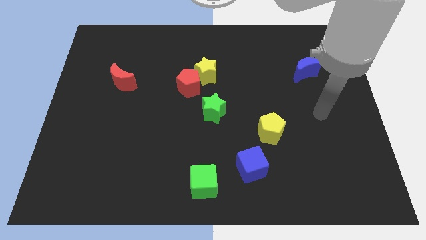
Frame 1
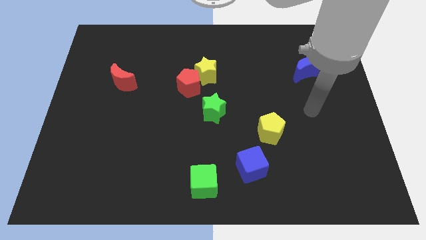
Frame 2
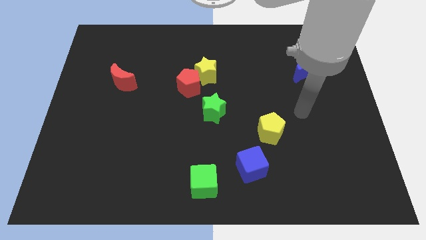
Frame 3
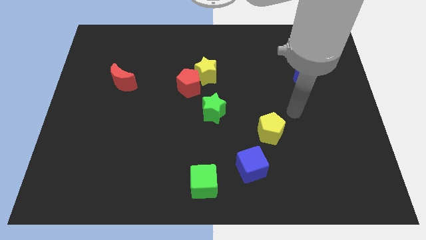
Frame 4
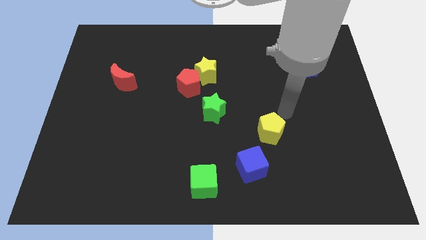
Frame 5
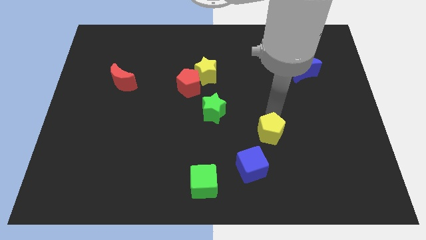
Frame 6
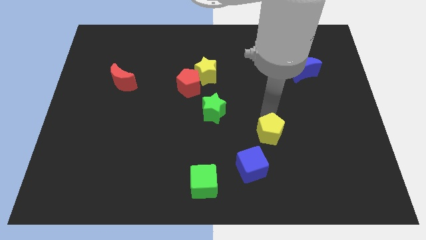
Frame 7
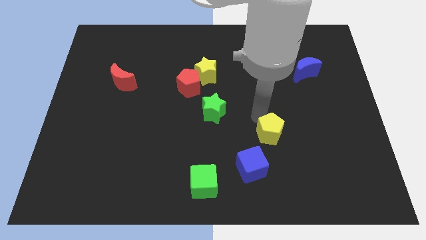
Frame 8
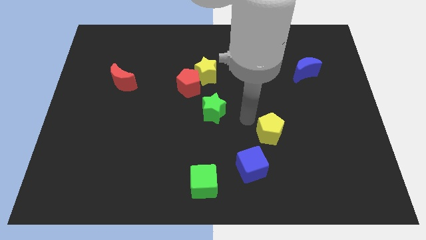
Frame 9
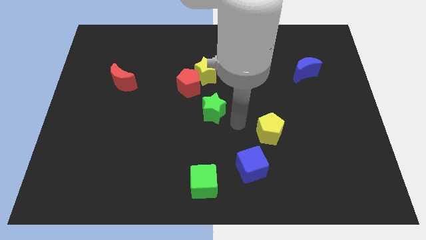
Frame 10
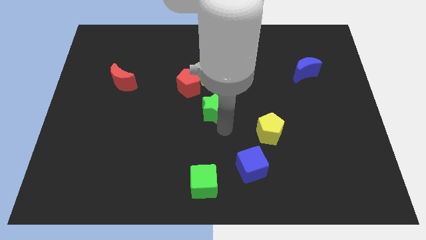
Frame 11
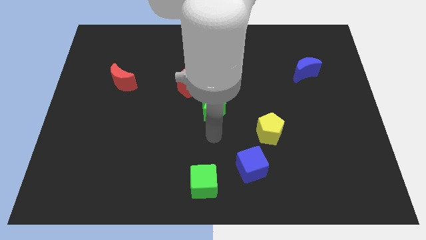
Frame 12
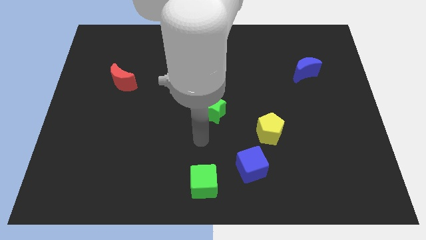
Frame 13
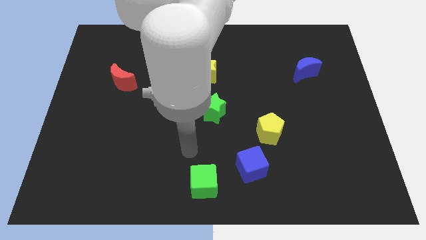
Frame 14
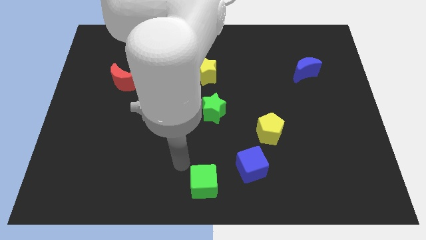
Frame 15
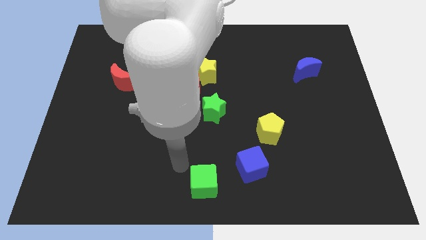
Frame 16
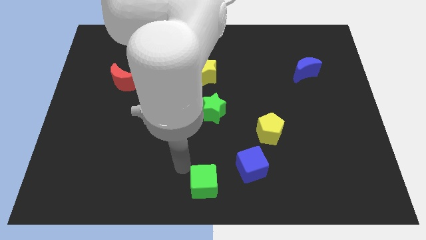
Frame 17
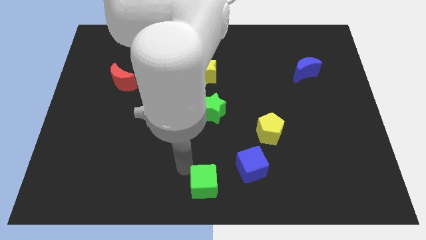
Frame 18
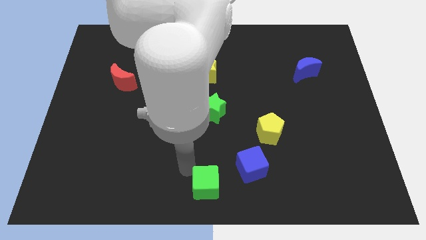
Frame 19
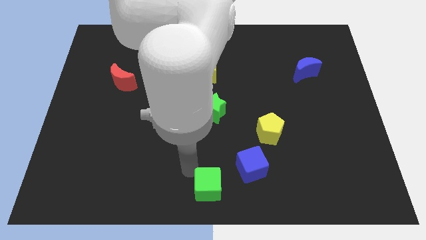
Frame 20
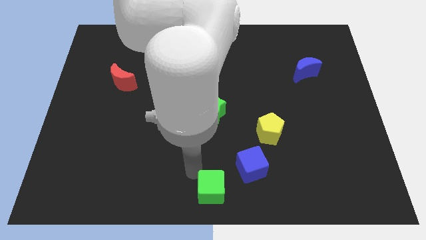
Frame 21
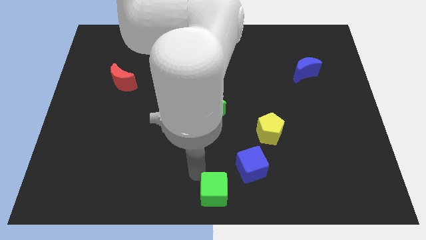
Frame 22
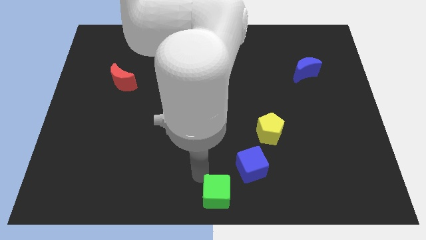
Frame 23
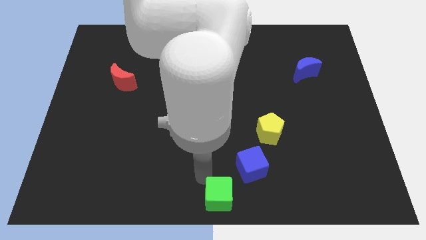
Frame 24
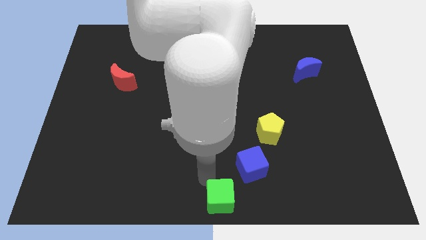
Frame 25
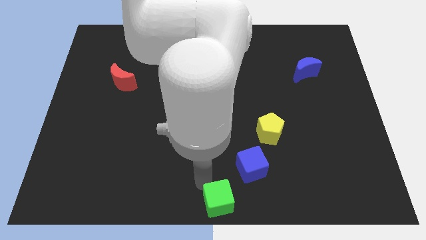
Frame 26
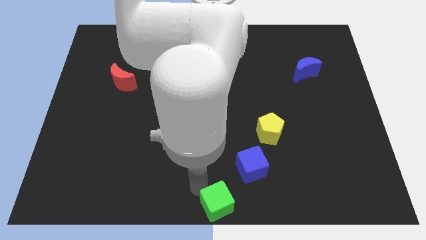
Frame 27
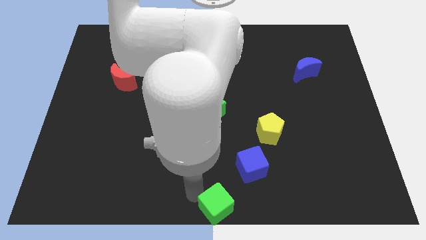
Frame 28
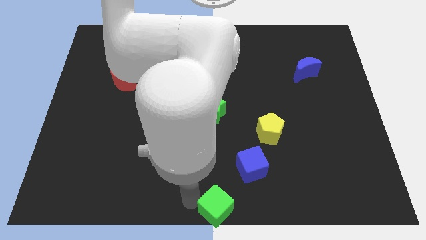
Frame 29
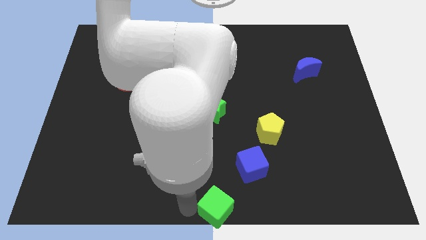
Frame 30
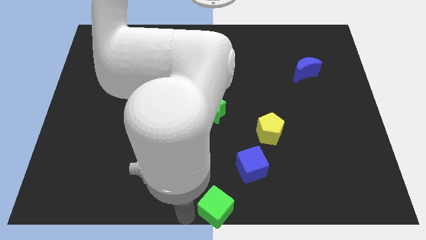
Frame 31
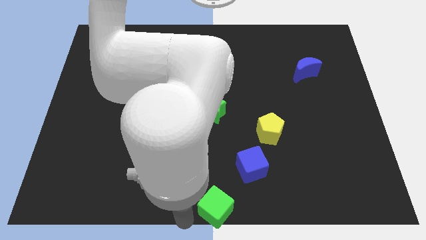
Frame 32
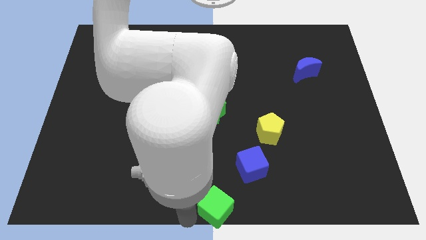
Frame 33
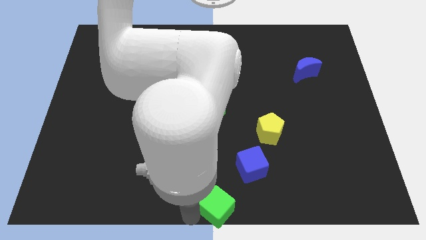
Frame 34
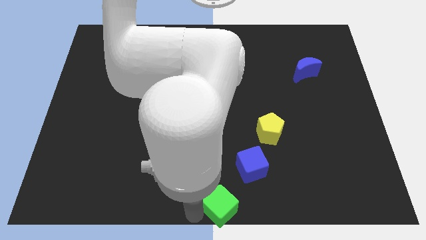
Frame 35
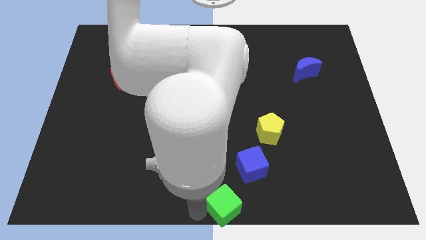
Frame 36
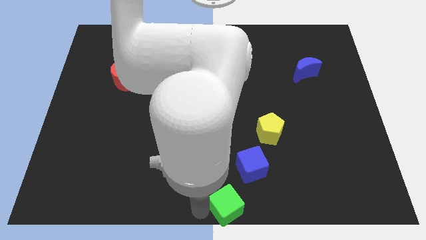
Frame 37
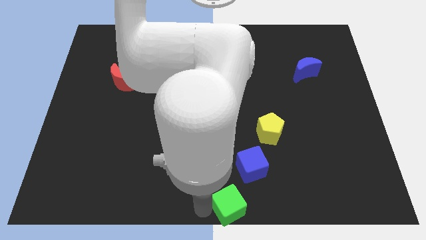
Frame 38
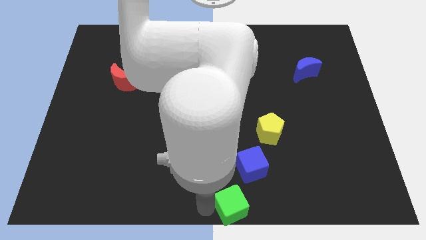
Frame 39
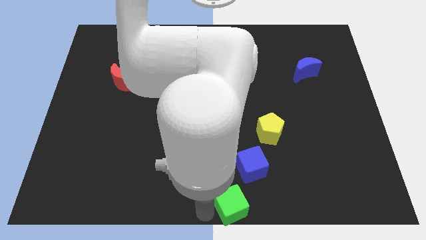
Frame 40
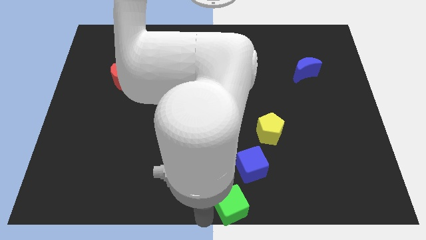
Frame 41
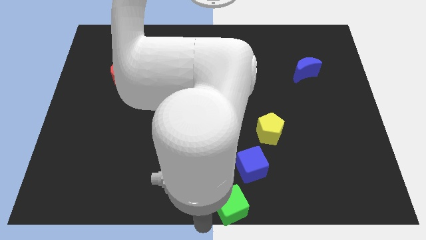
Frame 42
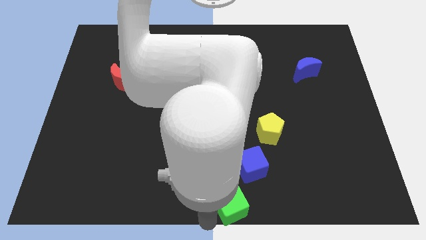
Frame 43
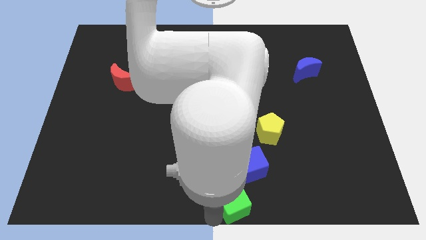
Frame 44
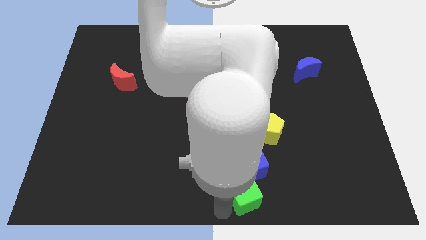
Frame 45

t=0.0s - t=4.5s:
slightly push the green cube to the right

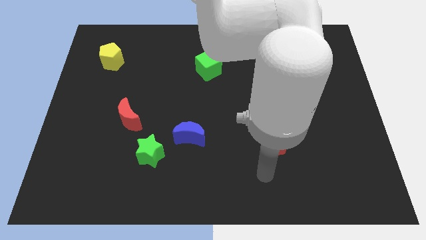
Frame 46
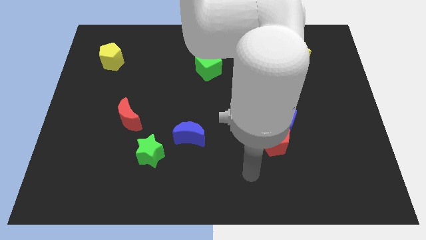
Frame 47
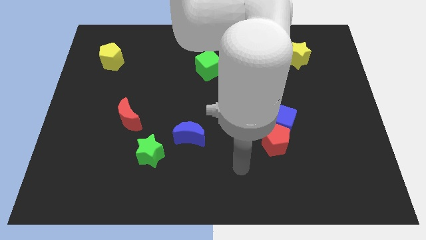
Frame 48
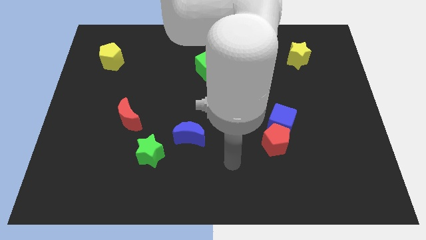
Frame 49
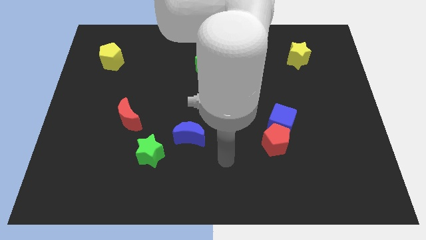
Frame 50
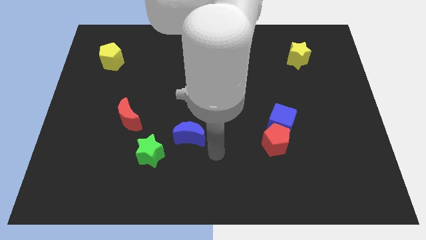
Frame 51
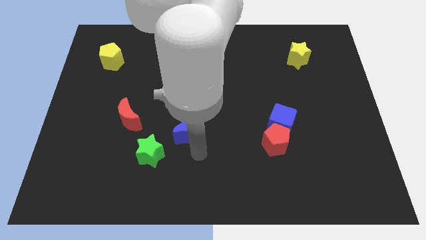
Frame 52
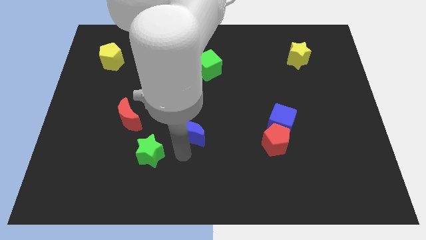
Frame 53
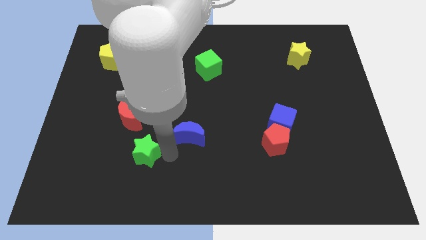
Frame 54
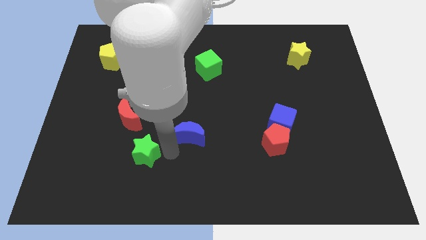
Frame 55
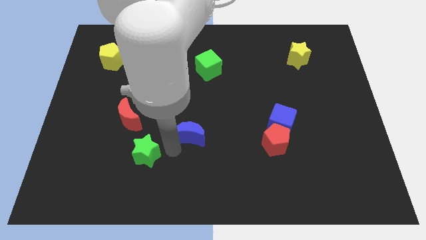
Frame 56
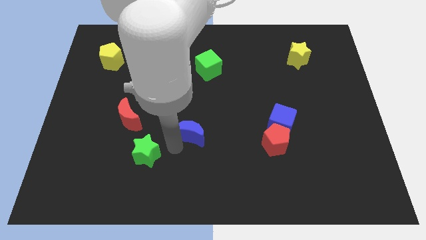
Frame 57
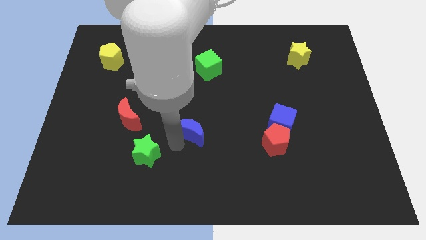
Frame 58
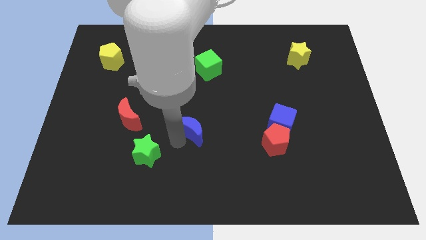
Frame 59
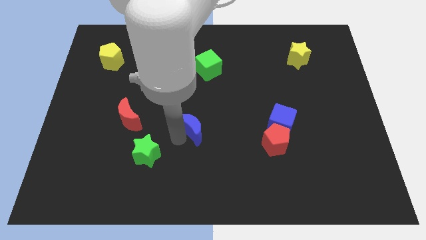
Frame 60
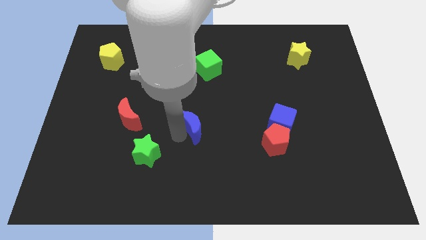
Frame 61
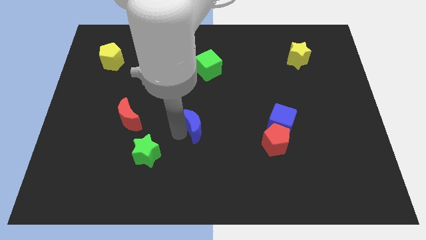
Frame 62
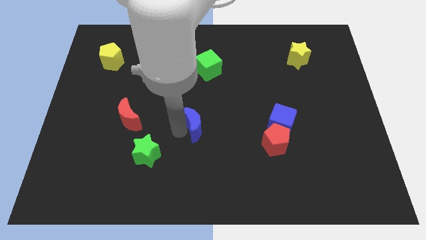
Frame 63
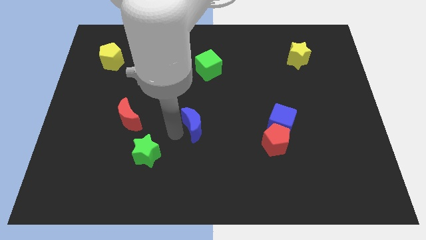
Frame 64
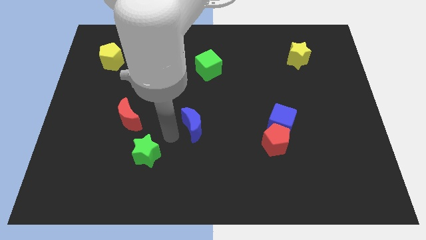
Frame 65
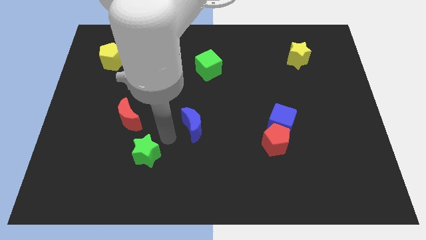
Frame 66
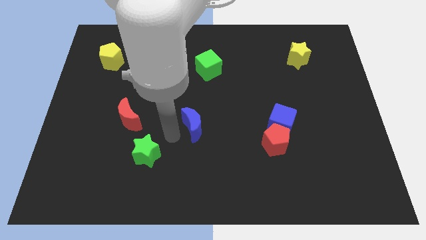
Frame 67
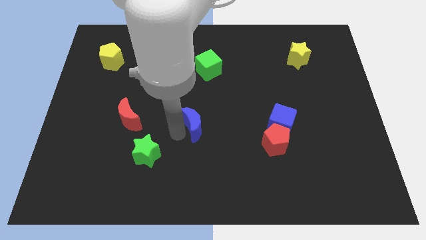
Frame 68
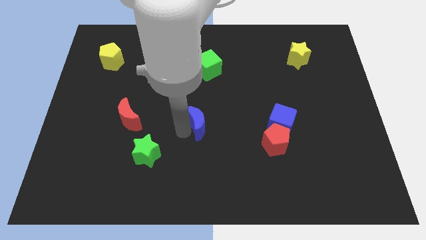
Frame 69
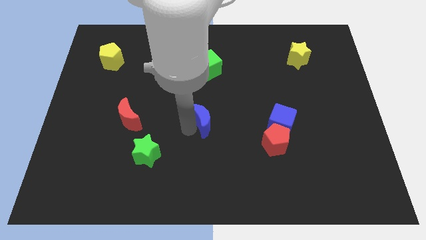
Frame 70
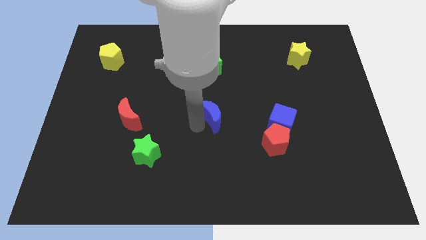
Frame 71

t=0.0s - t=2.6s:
slide the blue moon diagonally upwards and to the right somewhat

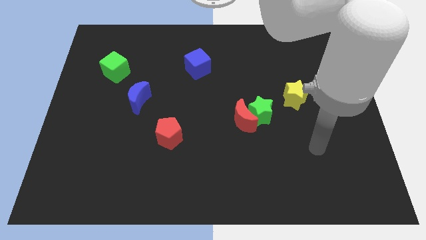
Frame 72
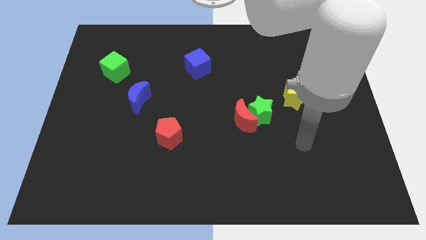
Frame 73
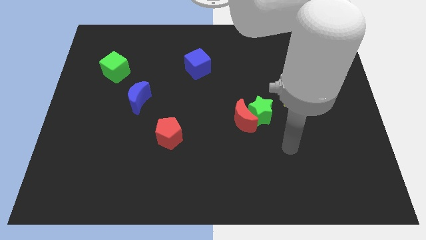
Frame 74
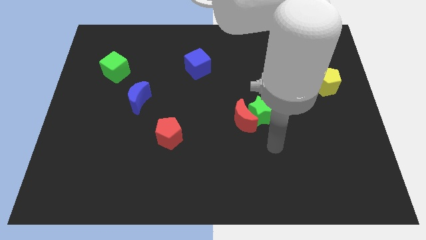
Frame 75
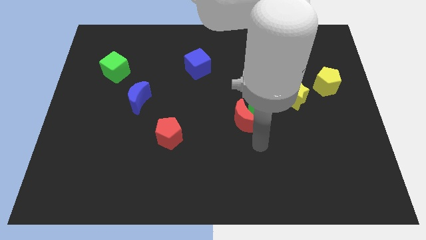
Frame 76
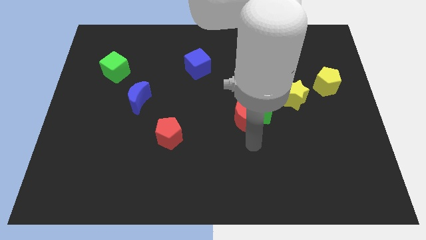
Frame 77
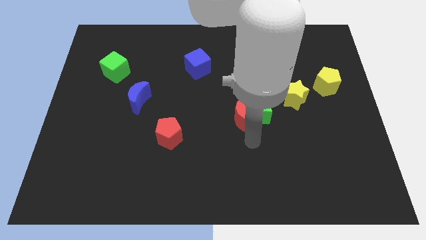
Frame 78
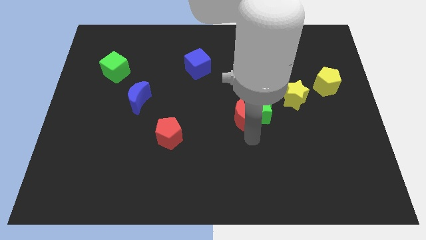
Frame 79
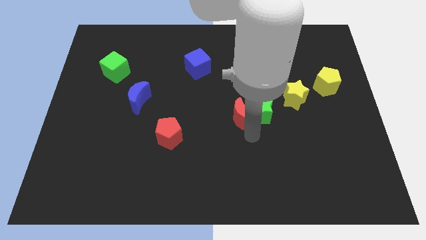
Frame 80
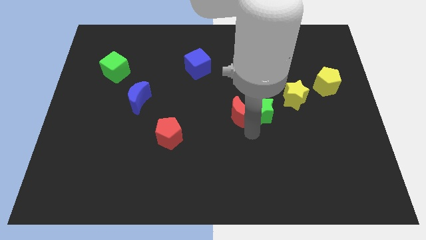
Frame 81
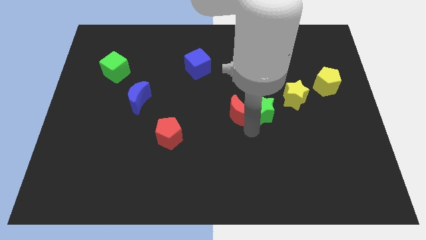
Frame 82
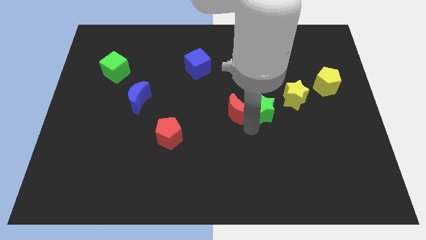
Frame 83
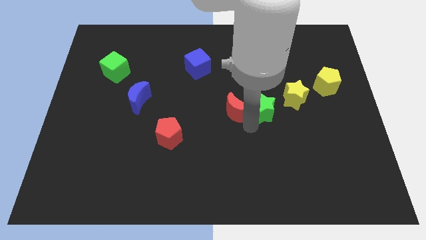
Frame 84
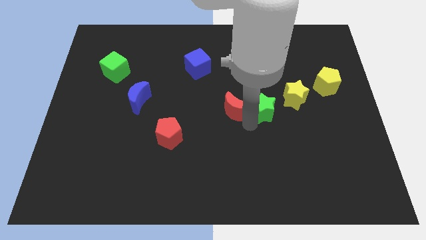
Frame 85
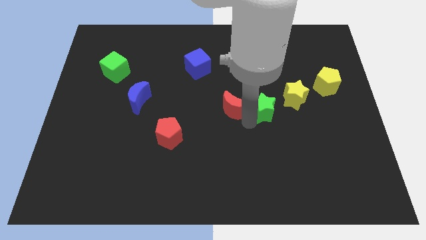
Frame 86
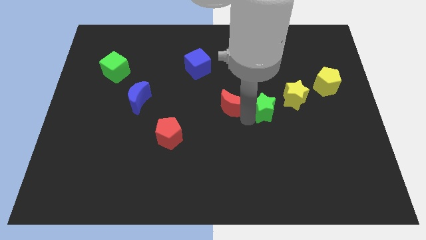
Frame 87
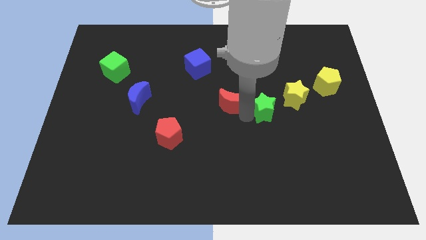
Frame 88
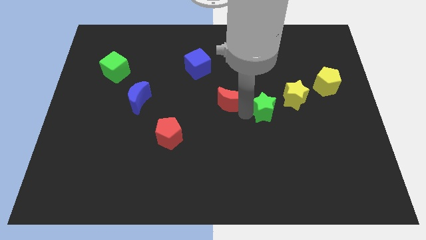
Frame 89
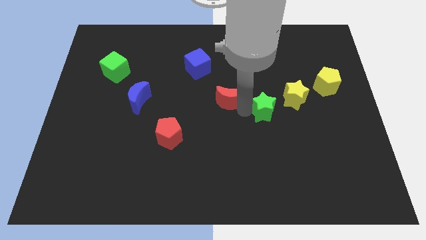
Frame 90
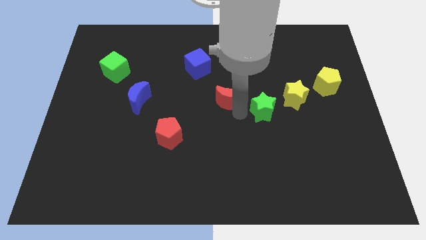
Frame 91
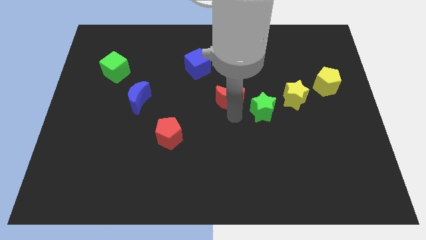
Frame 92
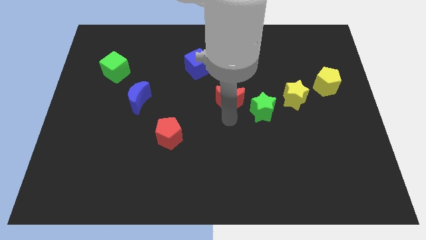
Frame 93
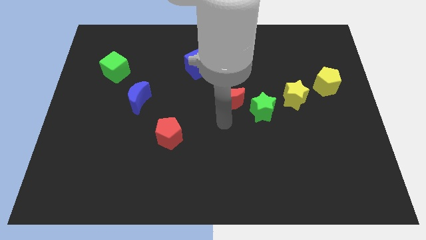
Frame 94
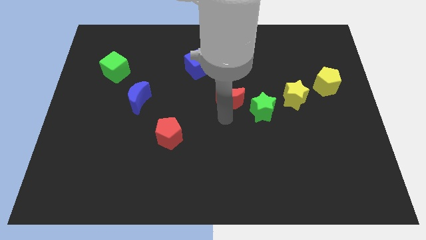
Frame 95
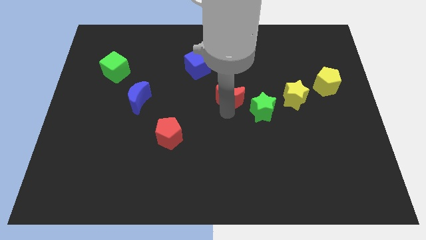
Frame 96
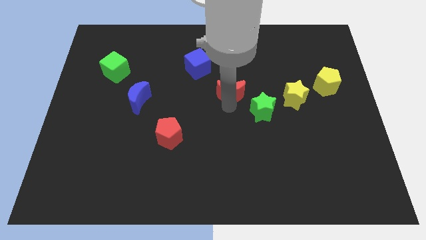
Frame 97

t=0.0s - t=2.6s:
slightly slide the red moon upwards
